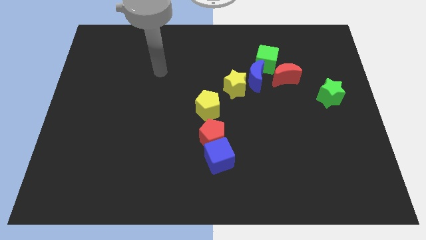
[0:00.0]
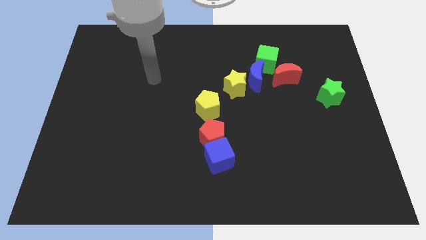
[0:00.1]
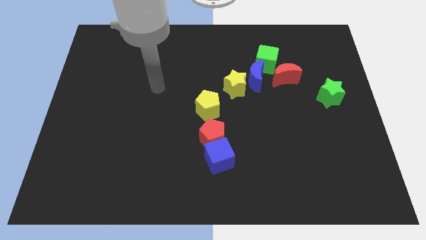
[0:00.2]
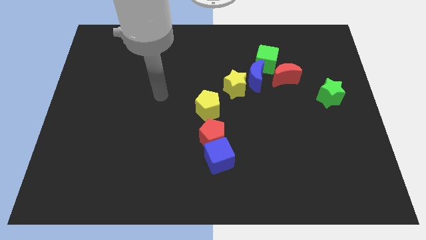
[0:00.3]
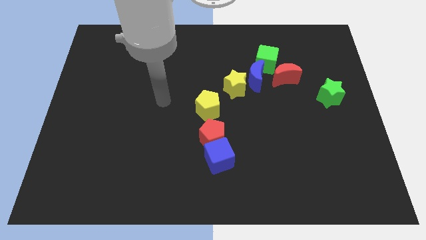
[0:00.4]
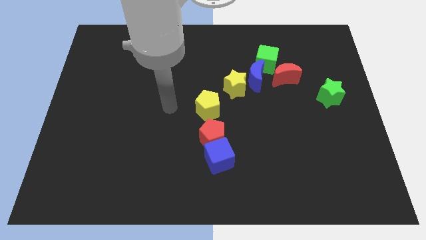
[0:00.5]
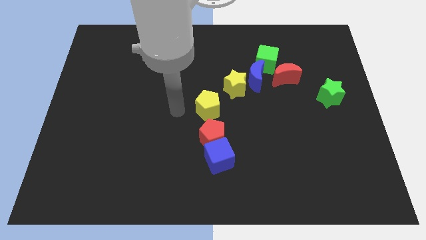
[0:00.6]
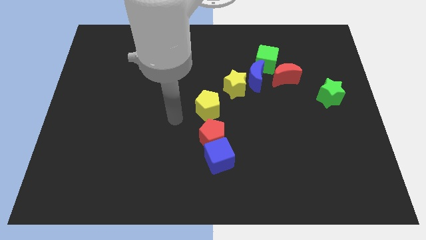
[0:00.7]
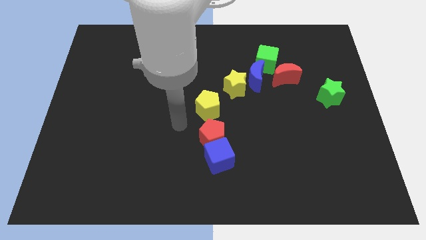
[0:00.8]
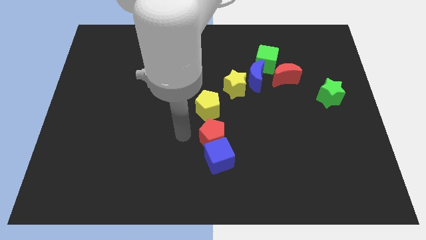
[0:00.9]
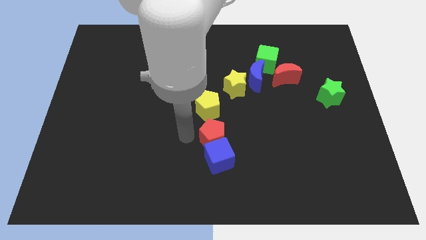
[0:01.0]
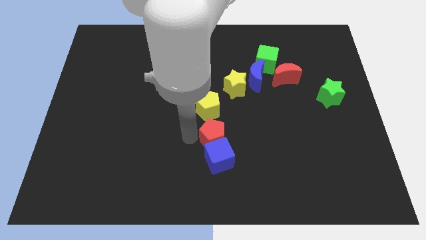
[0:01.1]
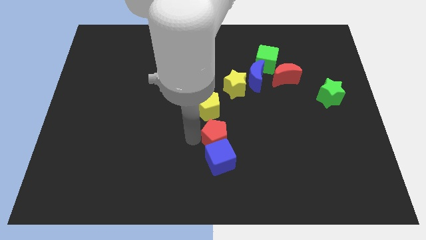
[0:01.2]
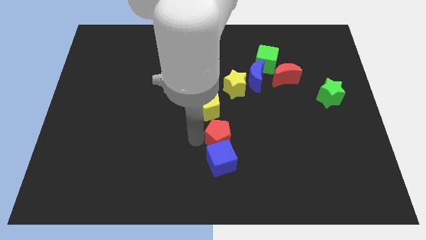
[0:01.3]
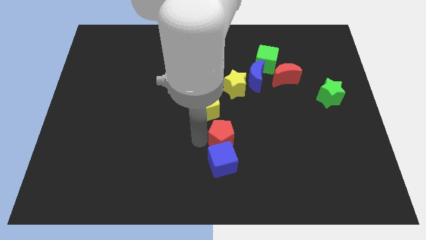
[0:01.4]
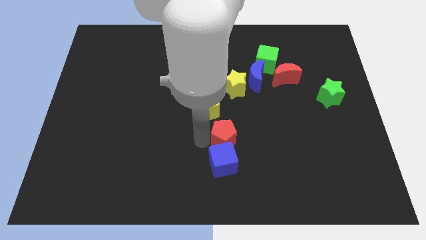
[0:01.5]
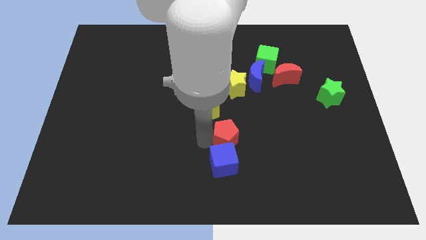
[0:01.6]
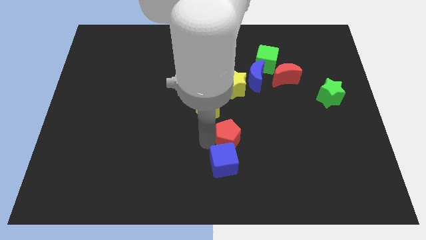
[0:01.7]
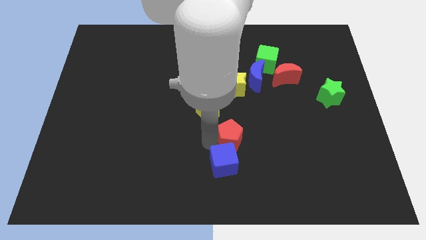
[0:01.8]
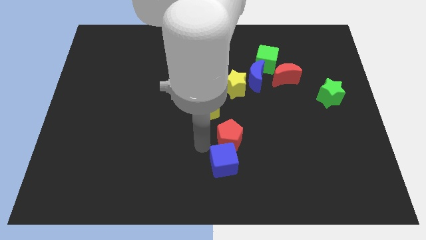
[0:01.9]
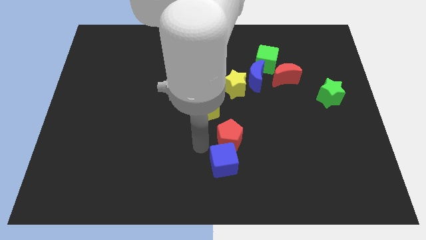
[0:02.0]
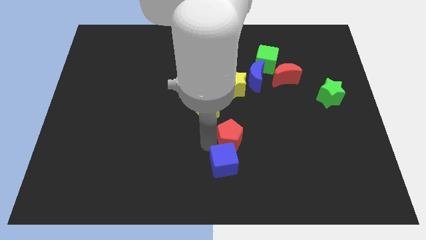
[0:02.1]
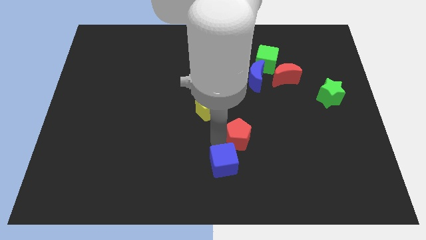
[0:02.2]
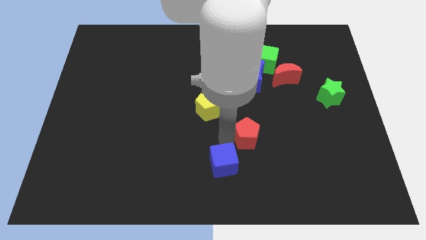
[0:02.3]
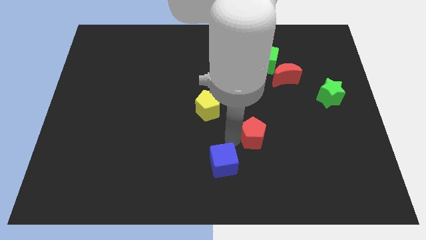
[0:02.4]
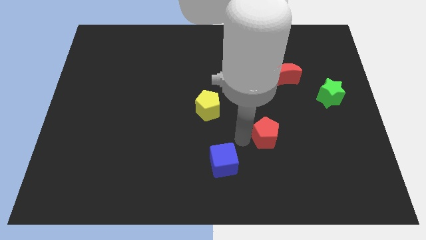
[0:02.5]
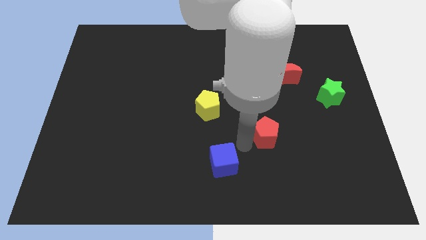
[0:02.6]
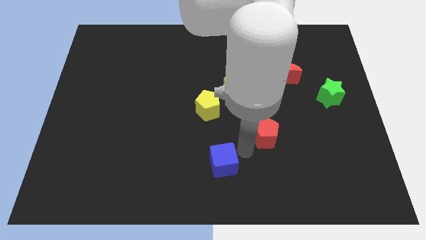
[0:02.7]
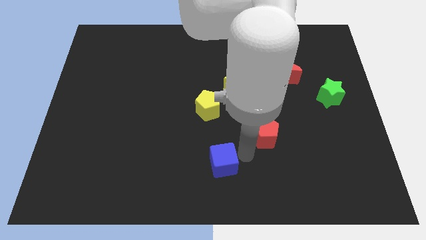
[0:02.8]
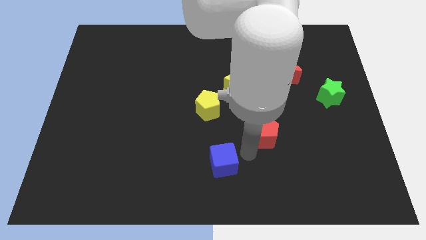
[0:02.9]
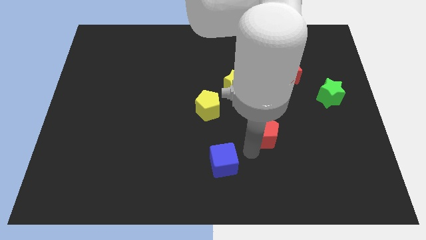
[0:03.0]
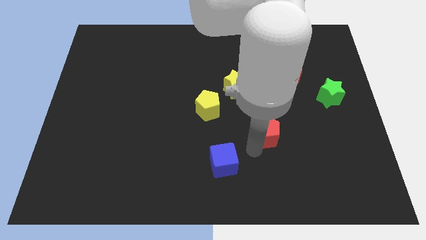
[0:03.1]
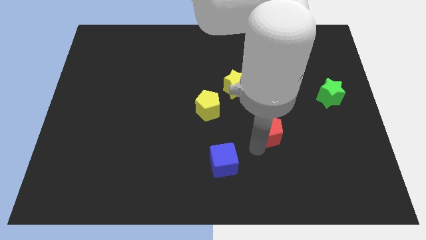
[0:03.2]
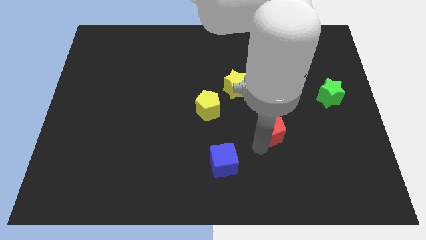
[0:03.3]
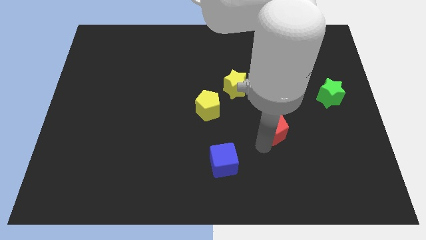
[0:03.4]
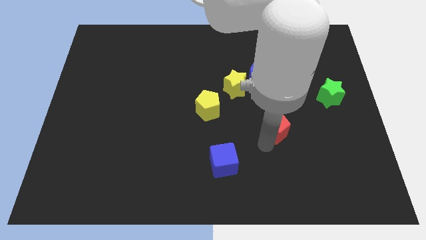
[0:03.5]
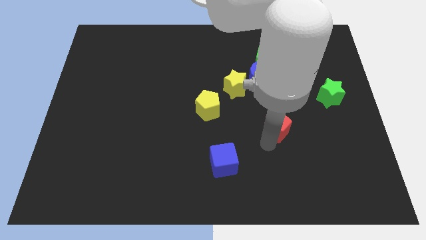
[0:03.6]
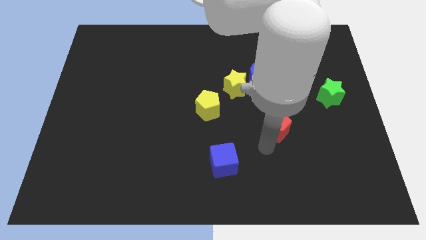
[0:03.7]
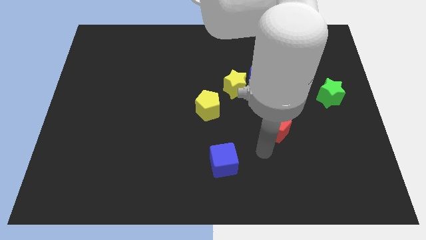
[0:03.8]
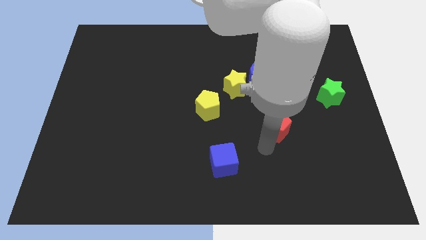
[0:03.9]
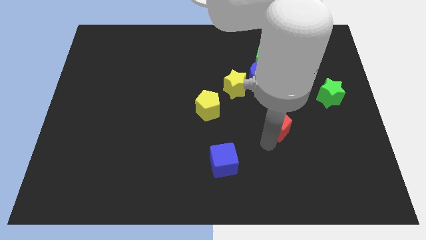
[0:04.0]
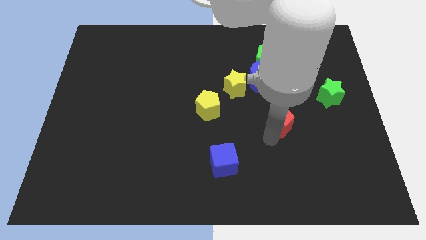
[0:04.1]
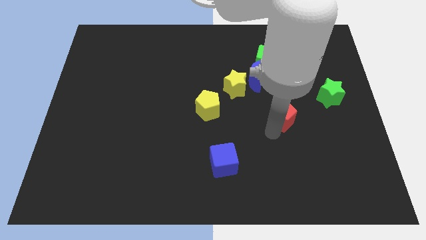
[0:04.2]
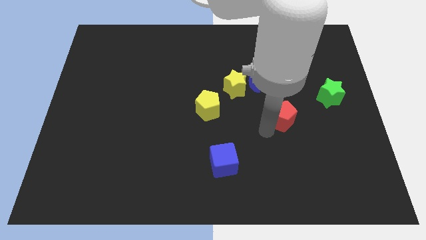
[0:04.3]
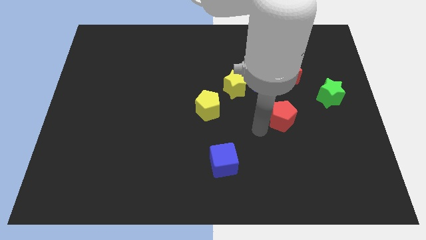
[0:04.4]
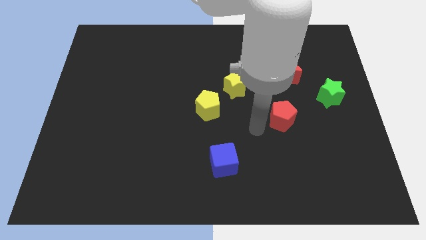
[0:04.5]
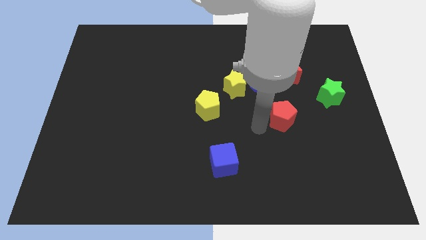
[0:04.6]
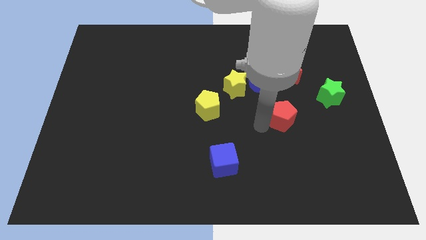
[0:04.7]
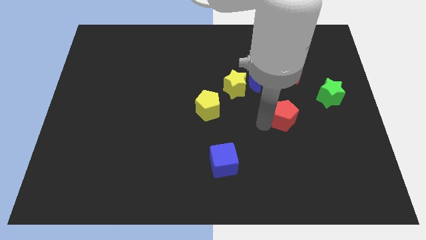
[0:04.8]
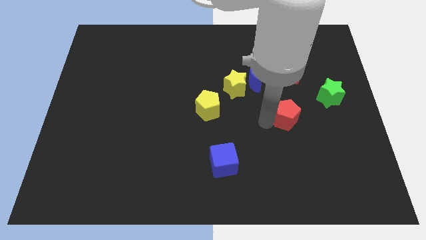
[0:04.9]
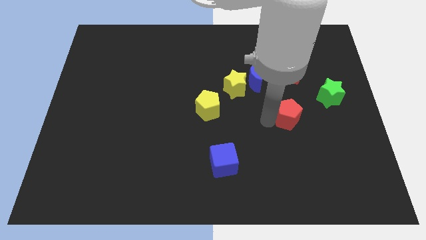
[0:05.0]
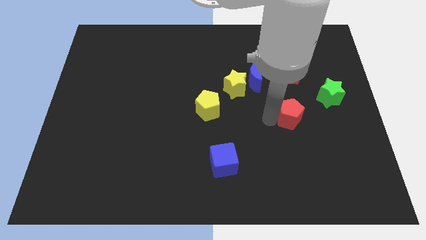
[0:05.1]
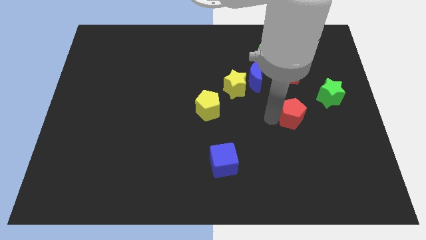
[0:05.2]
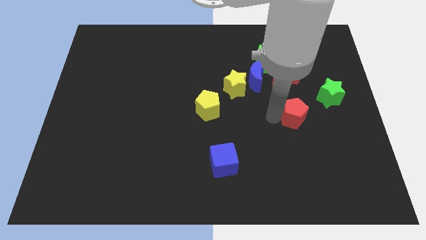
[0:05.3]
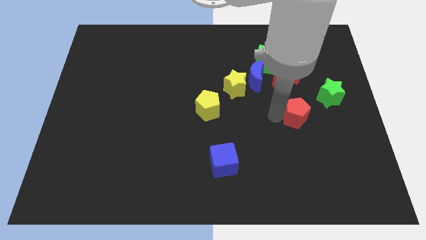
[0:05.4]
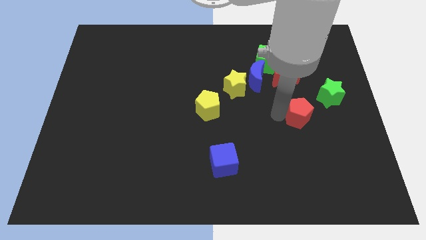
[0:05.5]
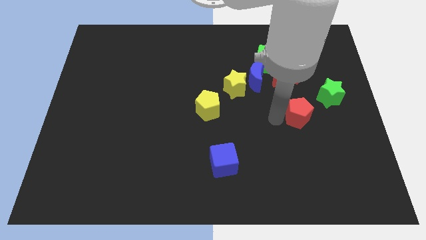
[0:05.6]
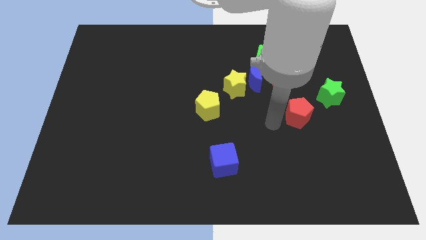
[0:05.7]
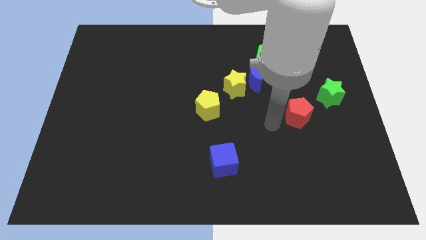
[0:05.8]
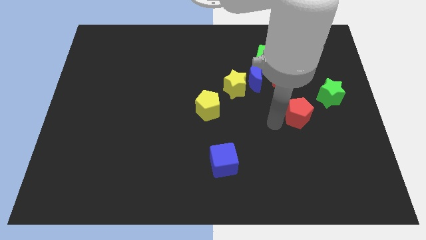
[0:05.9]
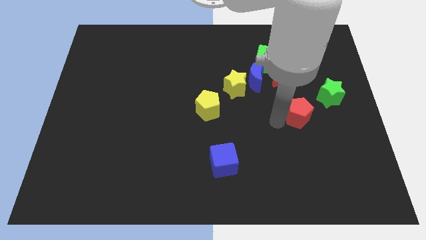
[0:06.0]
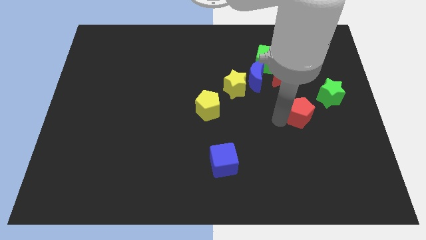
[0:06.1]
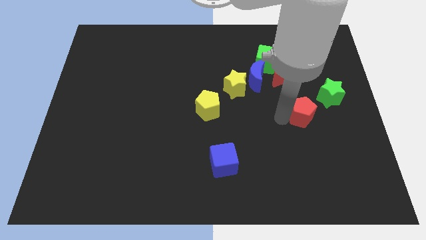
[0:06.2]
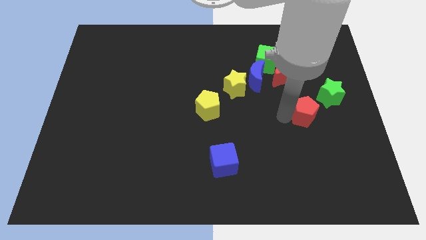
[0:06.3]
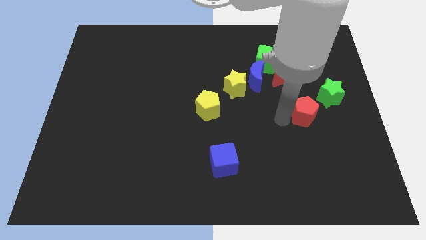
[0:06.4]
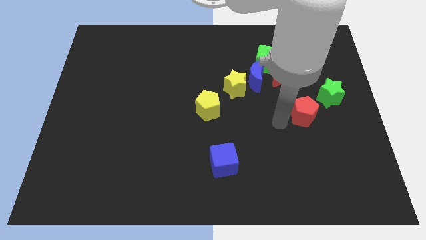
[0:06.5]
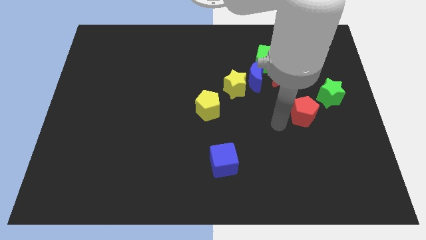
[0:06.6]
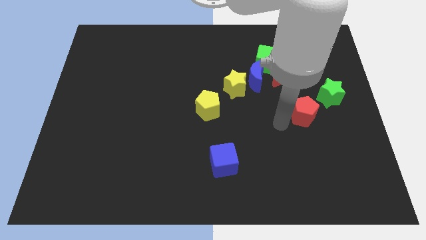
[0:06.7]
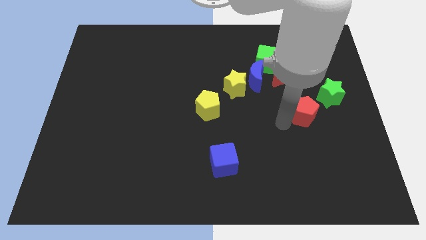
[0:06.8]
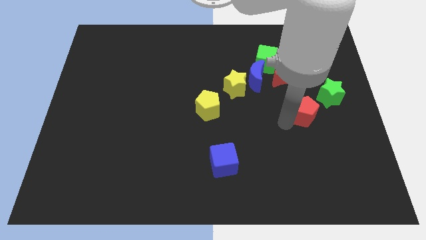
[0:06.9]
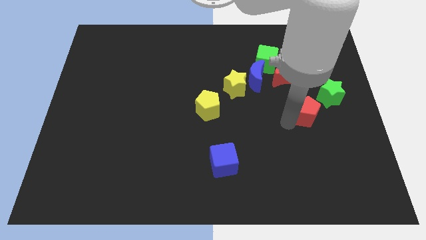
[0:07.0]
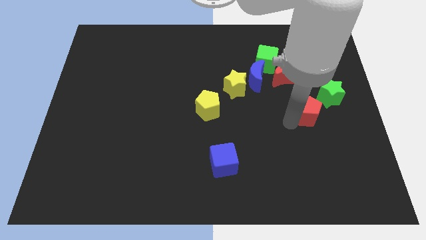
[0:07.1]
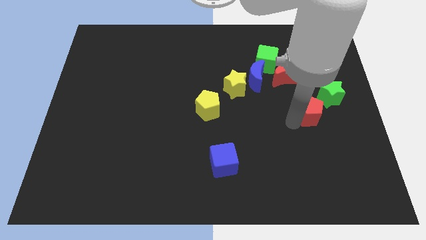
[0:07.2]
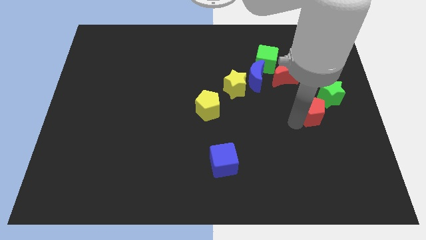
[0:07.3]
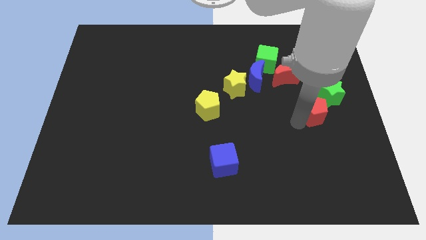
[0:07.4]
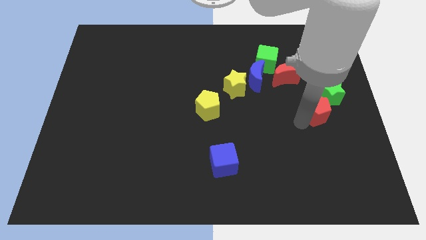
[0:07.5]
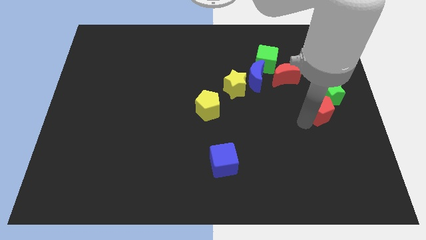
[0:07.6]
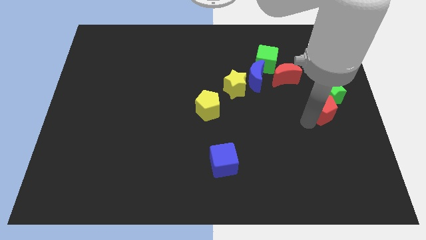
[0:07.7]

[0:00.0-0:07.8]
move the red pentagon towards the green star
